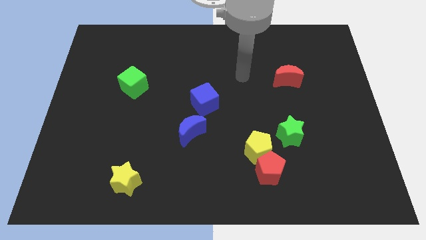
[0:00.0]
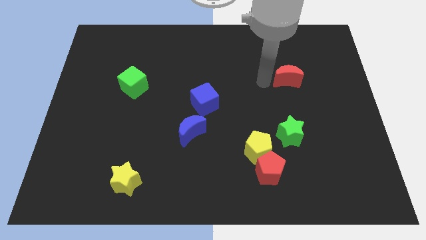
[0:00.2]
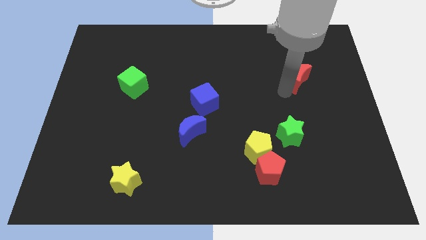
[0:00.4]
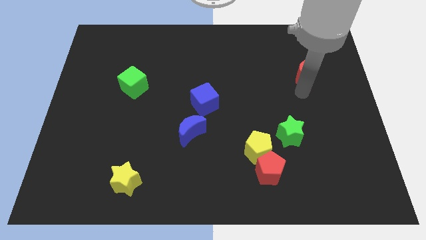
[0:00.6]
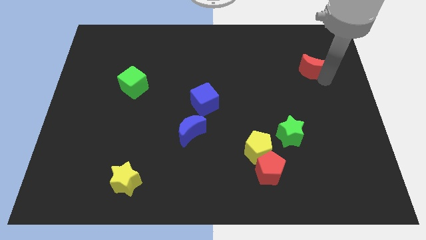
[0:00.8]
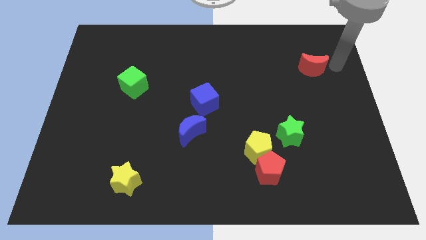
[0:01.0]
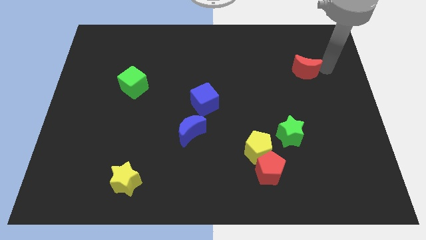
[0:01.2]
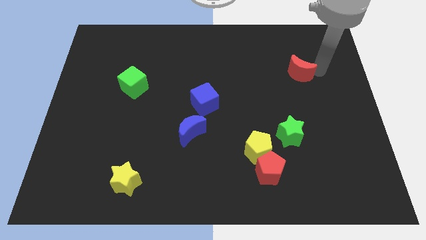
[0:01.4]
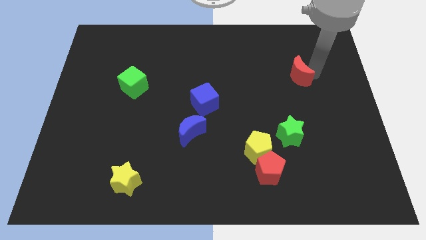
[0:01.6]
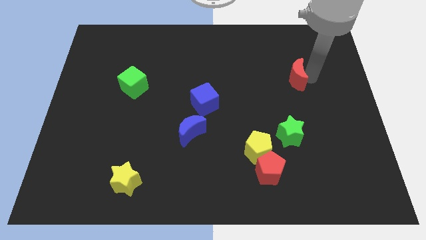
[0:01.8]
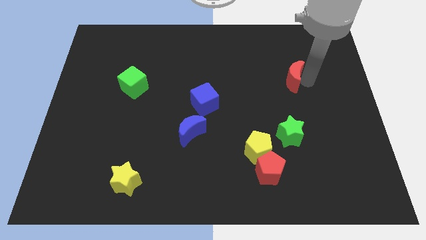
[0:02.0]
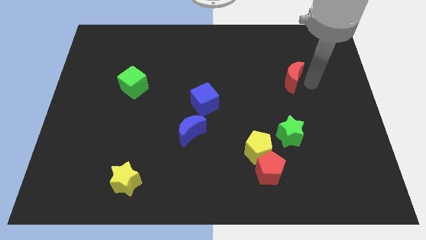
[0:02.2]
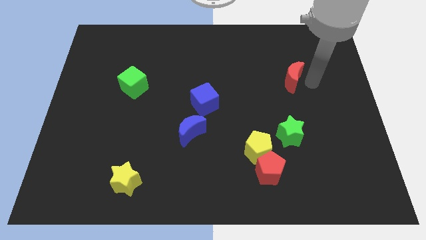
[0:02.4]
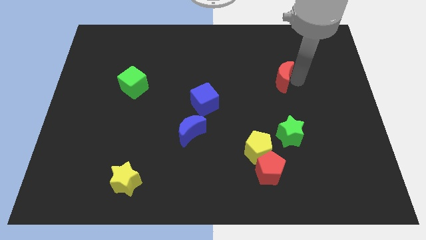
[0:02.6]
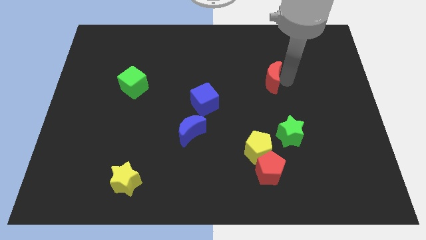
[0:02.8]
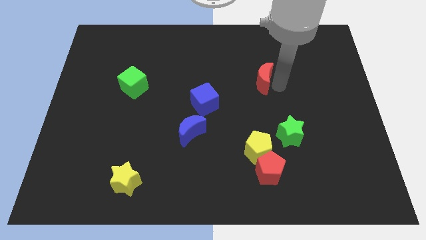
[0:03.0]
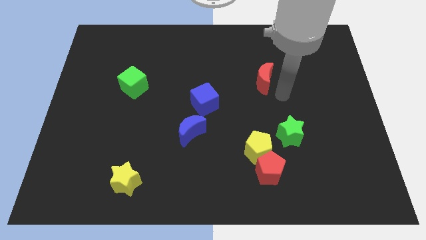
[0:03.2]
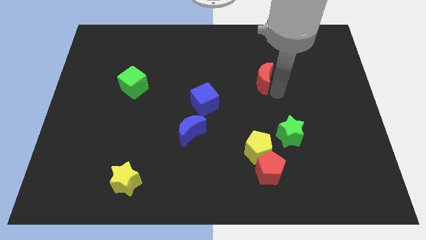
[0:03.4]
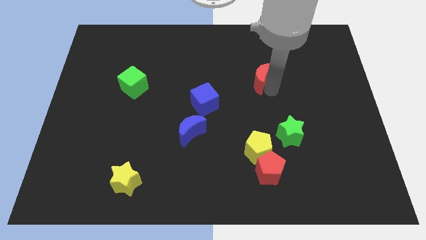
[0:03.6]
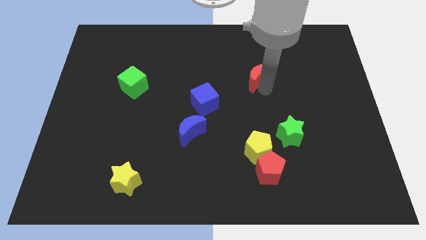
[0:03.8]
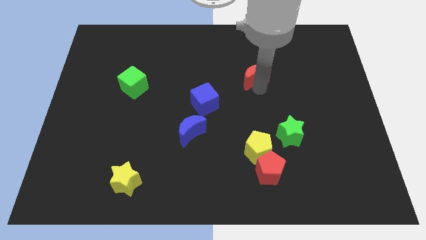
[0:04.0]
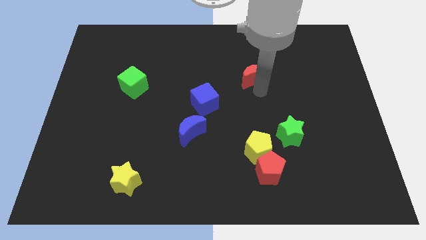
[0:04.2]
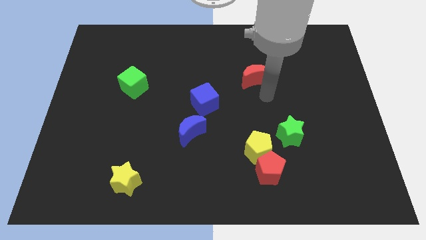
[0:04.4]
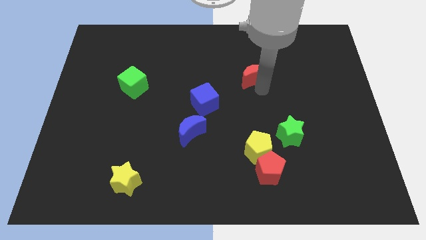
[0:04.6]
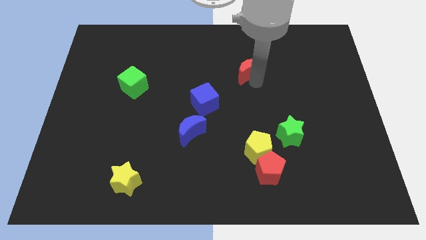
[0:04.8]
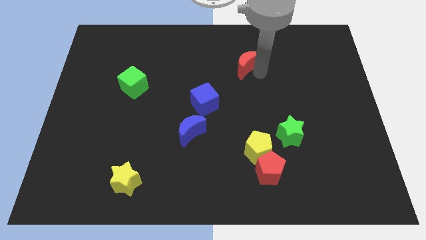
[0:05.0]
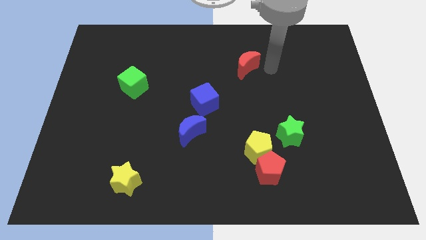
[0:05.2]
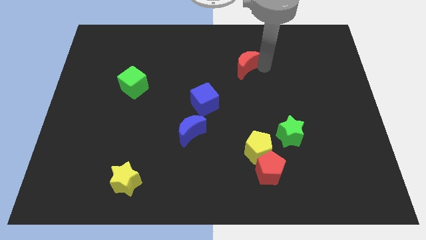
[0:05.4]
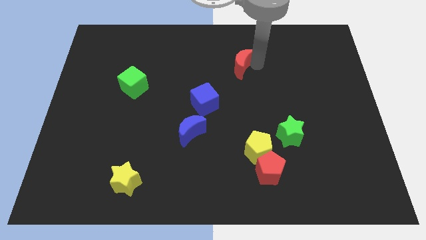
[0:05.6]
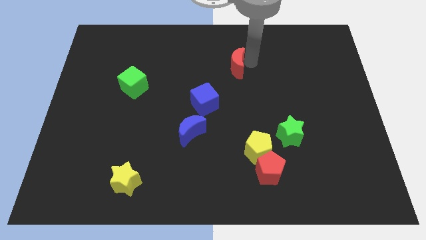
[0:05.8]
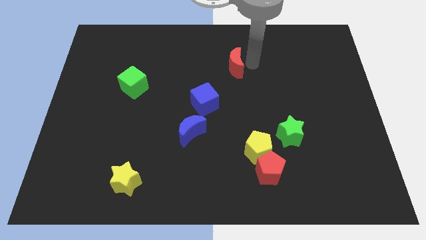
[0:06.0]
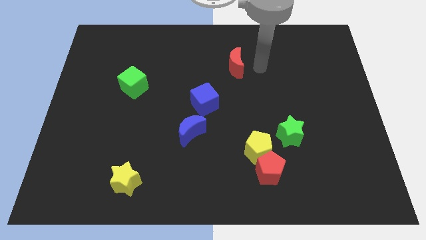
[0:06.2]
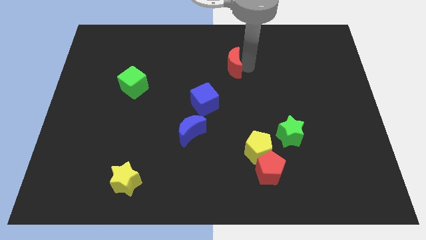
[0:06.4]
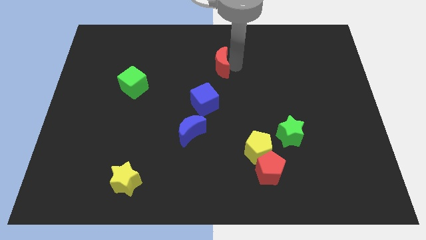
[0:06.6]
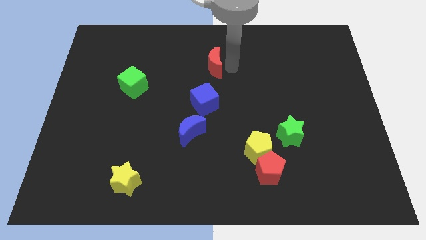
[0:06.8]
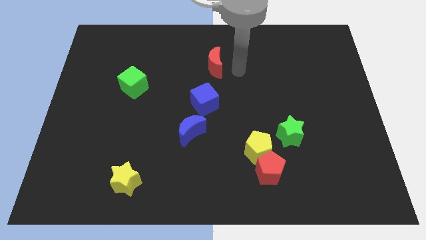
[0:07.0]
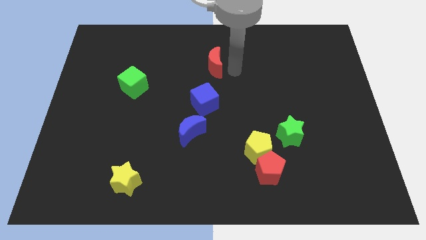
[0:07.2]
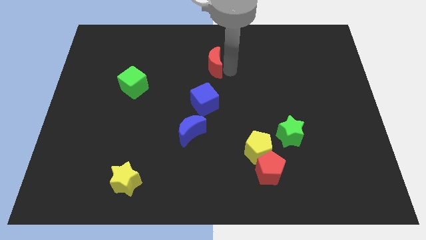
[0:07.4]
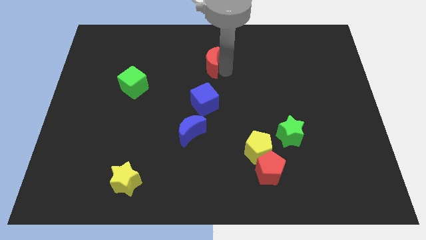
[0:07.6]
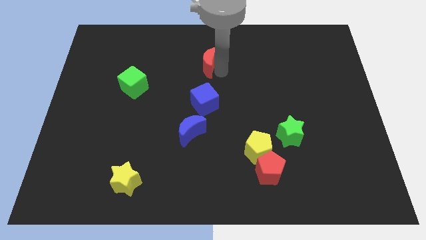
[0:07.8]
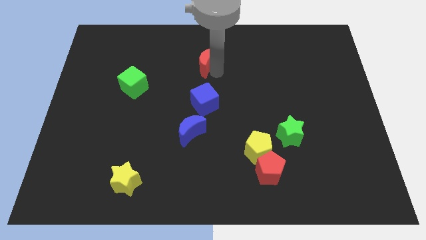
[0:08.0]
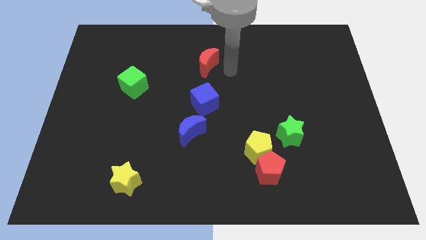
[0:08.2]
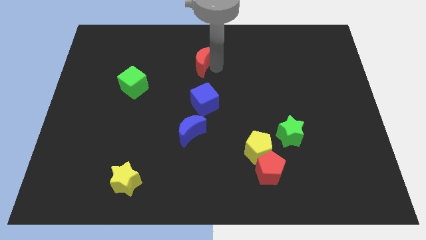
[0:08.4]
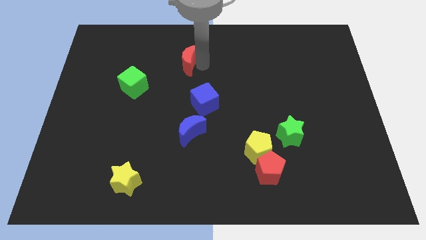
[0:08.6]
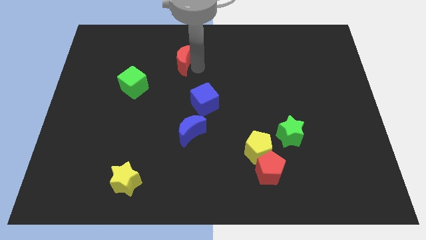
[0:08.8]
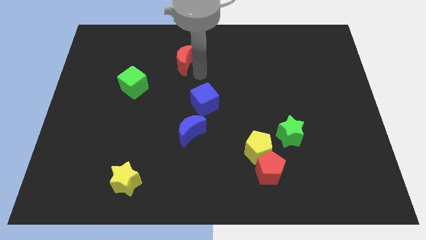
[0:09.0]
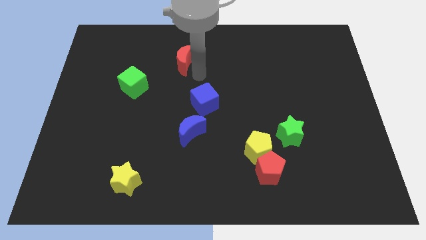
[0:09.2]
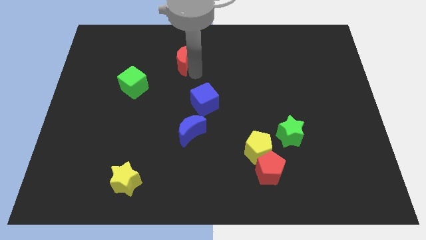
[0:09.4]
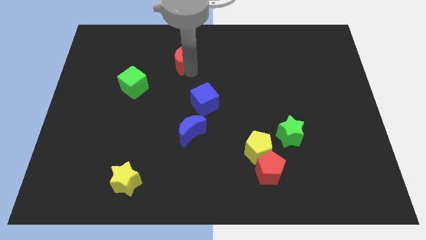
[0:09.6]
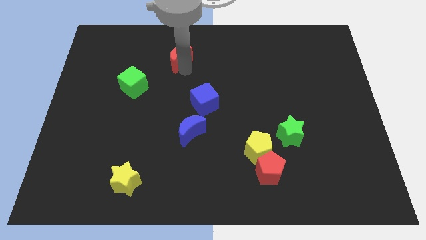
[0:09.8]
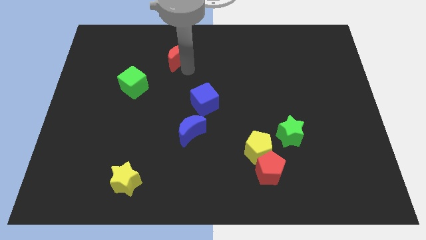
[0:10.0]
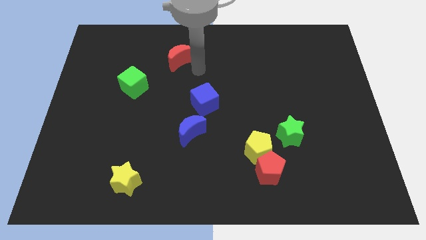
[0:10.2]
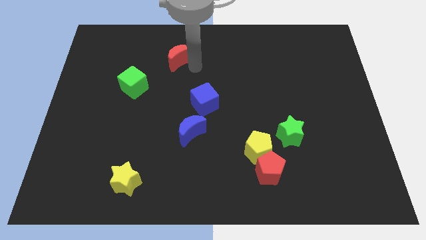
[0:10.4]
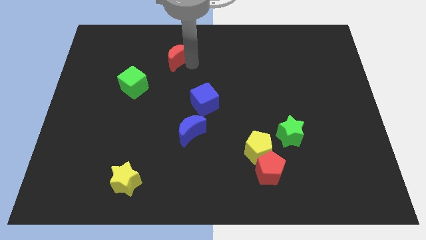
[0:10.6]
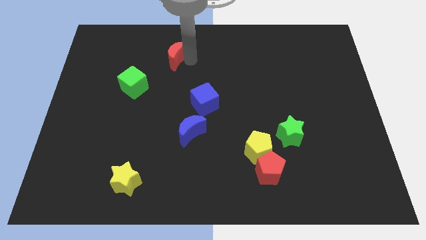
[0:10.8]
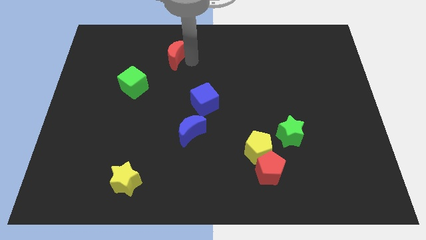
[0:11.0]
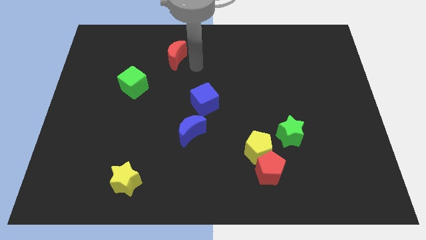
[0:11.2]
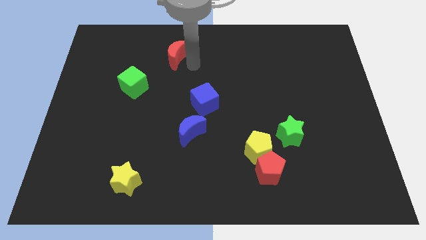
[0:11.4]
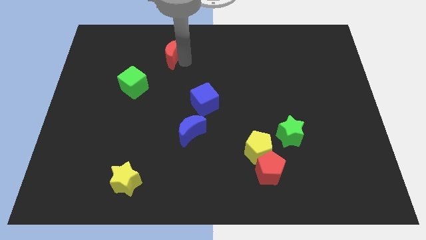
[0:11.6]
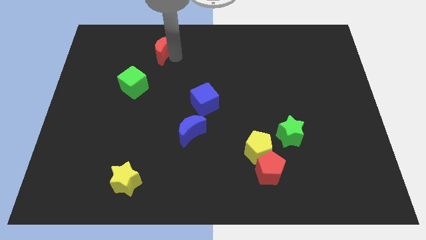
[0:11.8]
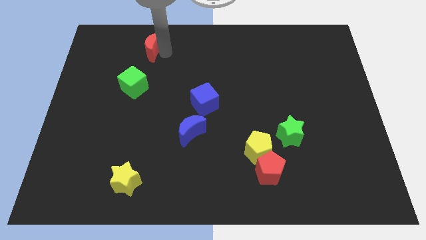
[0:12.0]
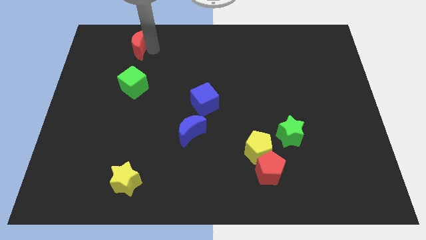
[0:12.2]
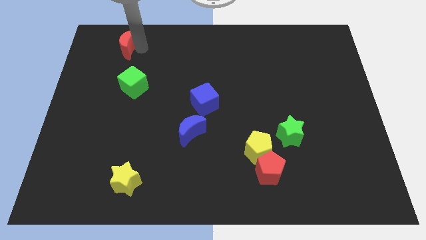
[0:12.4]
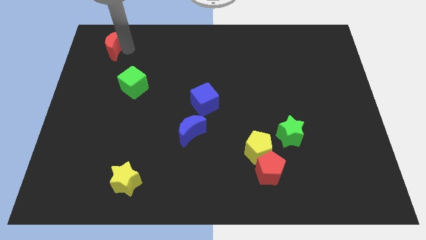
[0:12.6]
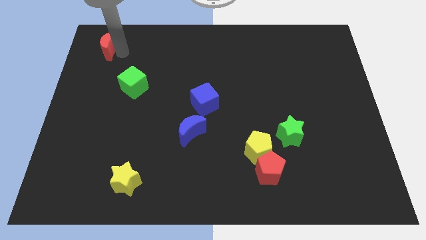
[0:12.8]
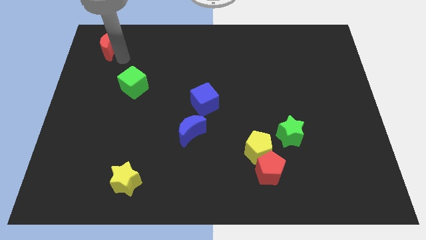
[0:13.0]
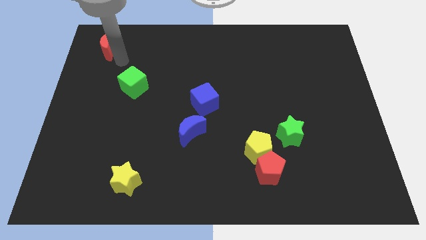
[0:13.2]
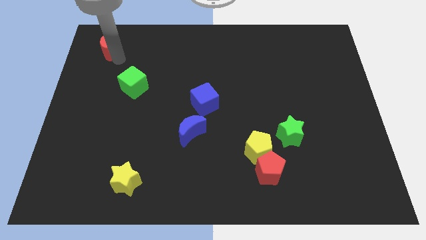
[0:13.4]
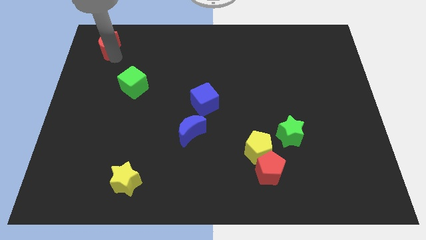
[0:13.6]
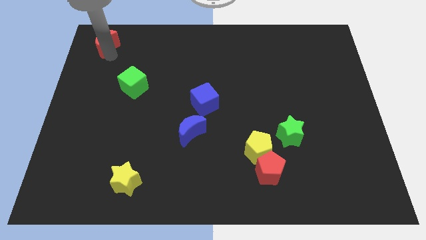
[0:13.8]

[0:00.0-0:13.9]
slide the red moon to the top left corner
